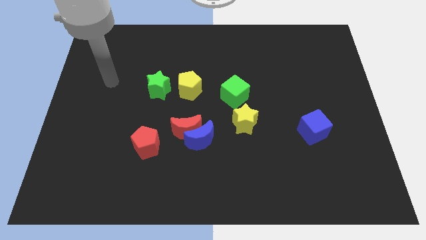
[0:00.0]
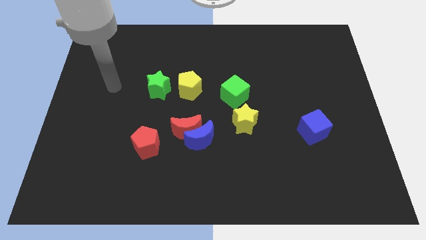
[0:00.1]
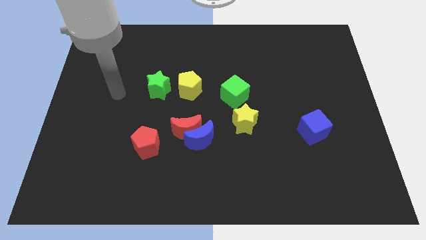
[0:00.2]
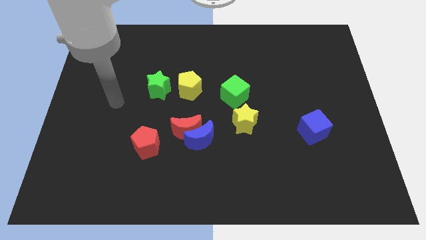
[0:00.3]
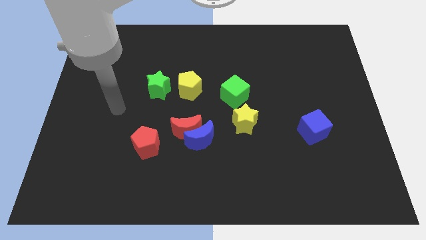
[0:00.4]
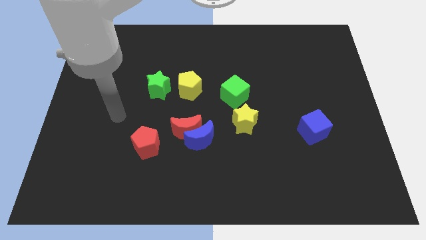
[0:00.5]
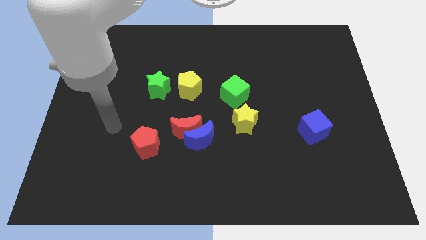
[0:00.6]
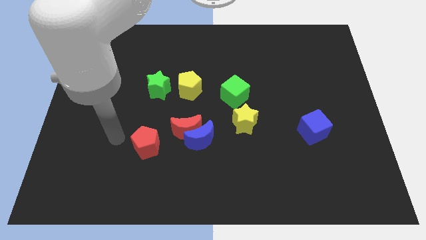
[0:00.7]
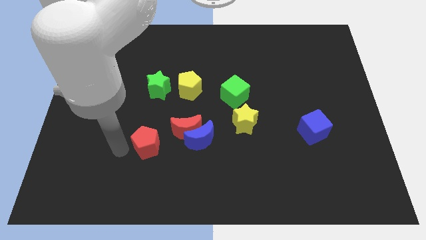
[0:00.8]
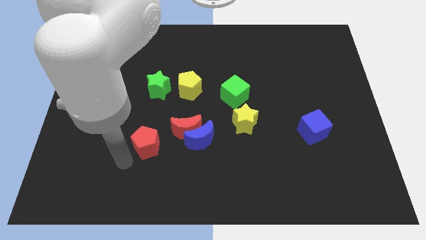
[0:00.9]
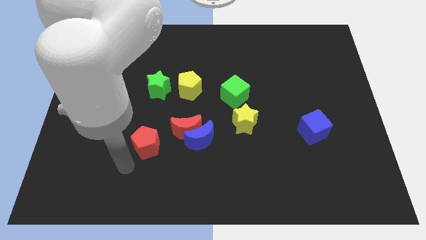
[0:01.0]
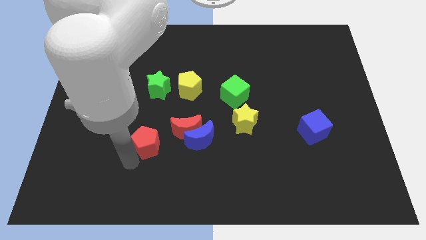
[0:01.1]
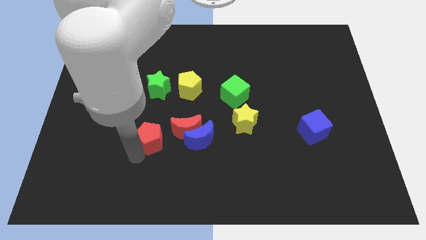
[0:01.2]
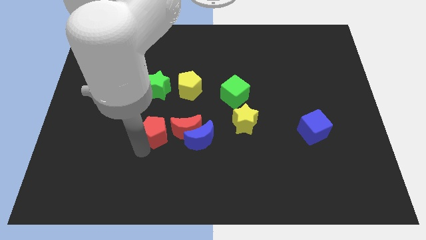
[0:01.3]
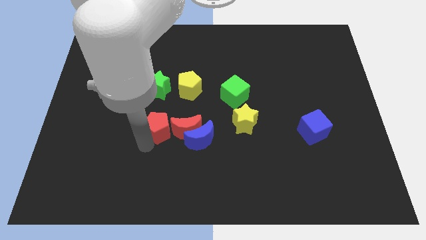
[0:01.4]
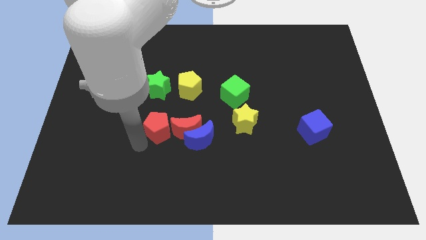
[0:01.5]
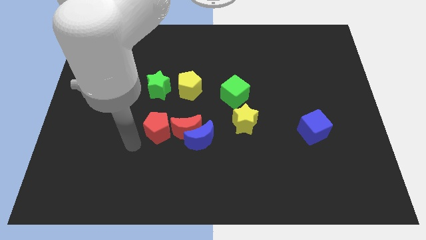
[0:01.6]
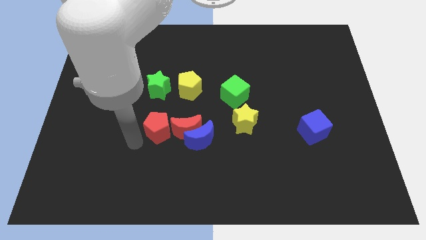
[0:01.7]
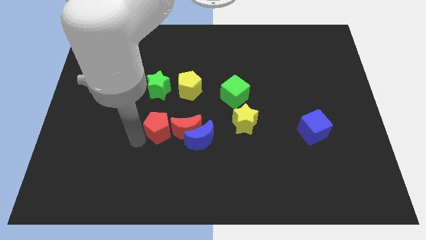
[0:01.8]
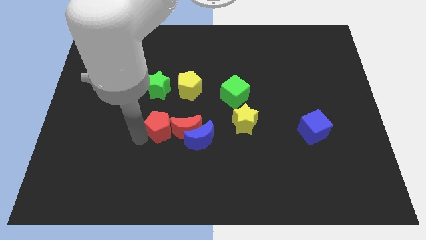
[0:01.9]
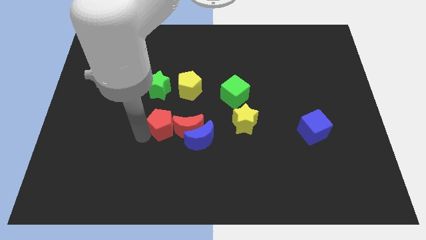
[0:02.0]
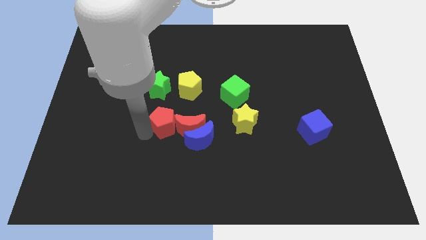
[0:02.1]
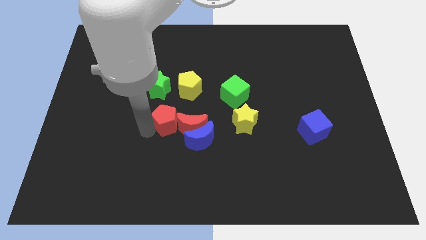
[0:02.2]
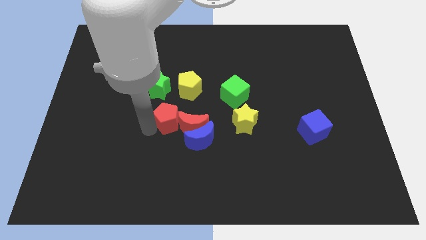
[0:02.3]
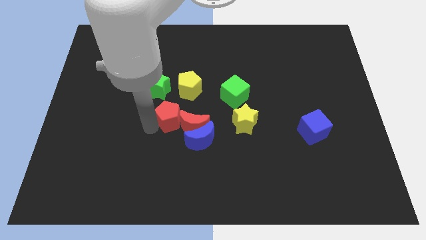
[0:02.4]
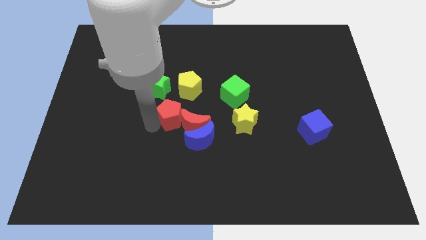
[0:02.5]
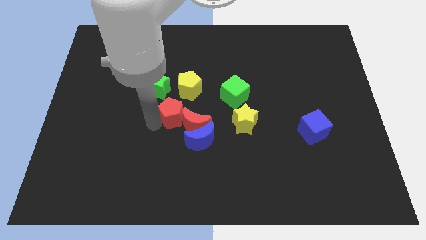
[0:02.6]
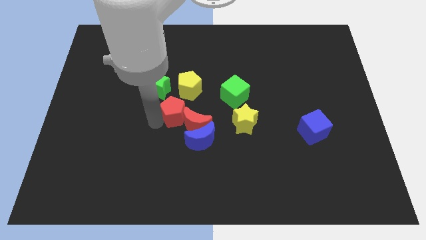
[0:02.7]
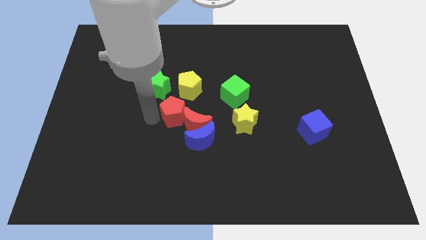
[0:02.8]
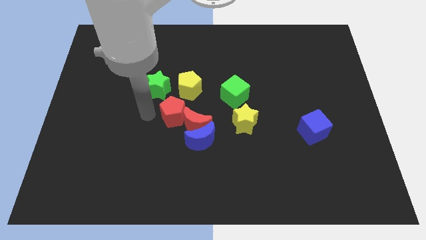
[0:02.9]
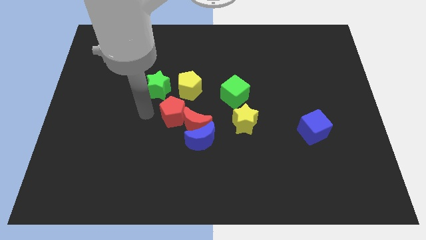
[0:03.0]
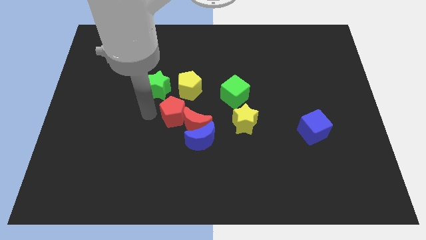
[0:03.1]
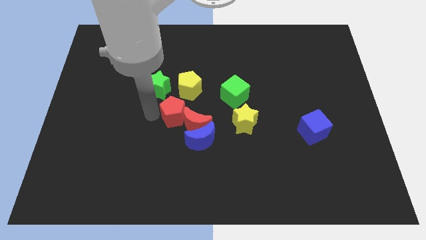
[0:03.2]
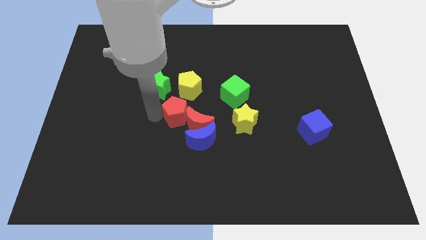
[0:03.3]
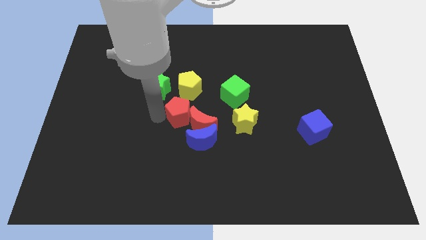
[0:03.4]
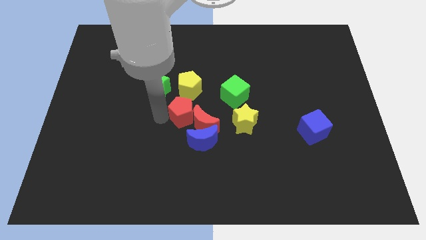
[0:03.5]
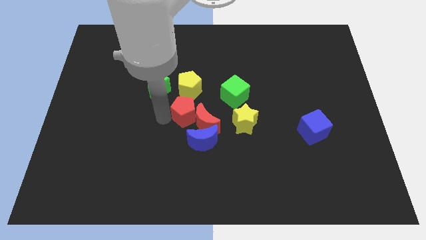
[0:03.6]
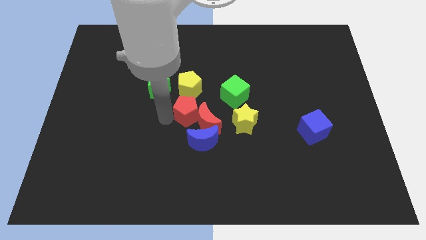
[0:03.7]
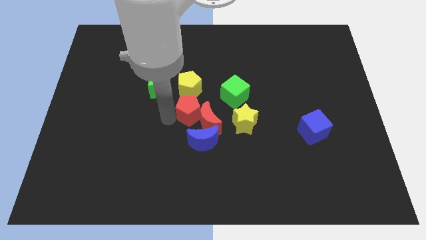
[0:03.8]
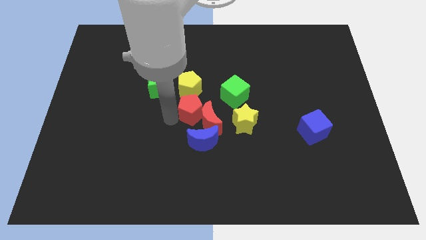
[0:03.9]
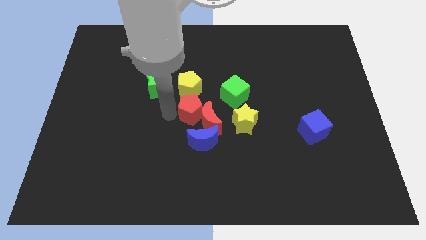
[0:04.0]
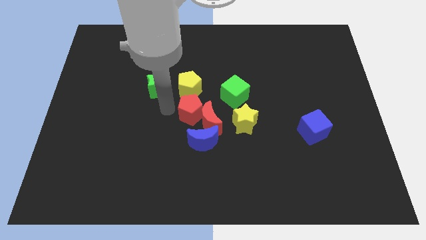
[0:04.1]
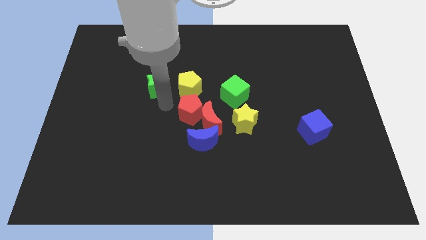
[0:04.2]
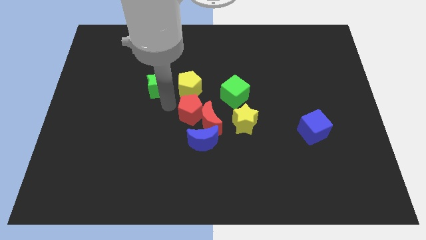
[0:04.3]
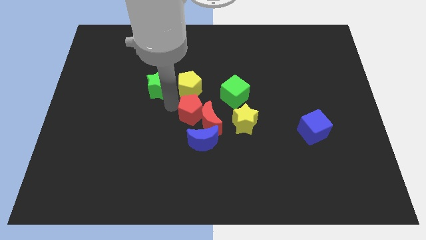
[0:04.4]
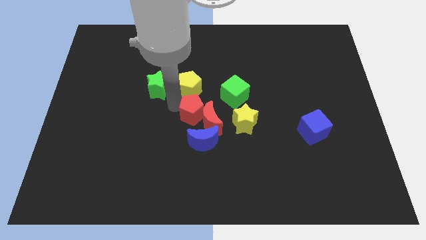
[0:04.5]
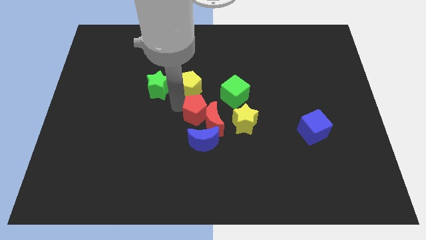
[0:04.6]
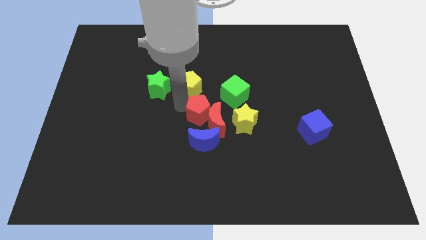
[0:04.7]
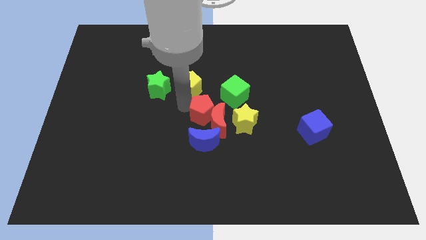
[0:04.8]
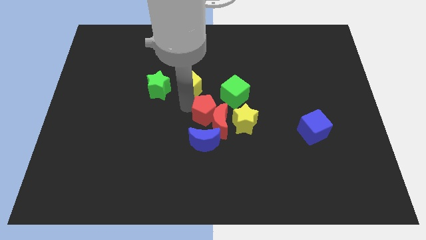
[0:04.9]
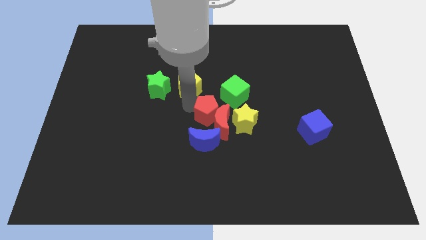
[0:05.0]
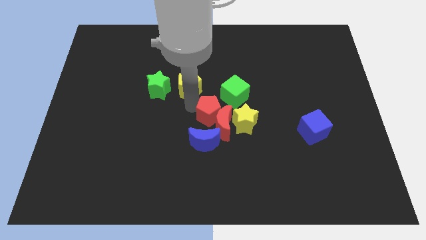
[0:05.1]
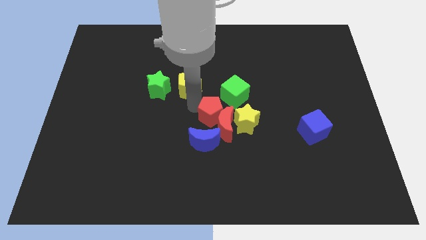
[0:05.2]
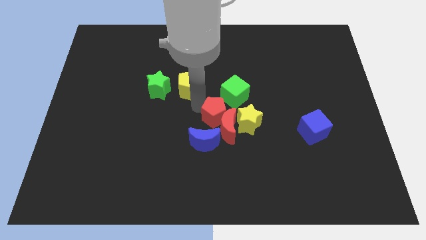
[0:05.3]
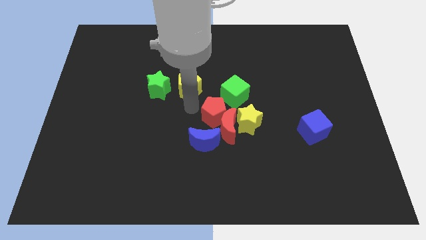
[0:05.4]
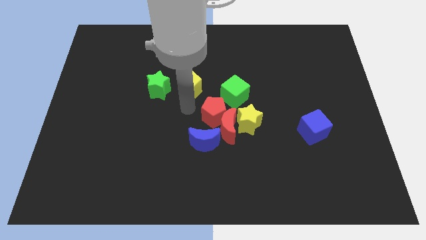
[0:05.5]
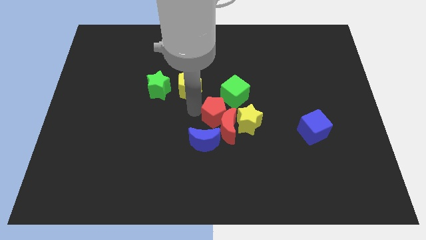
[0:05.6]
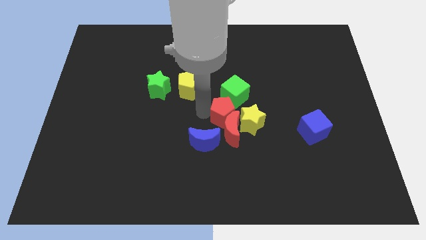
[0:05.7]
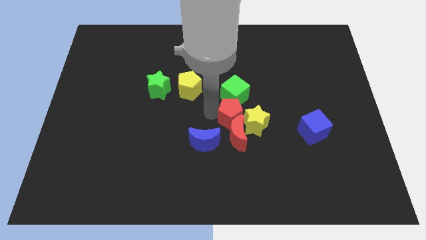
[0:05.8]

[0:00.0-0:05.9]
slide the red pentagon close to the yellow star

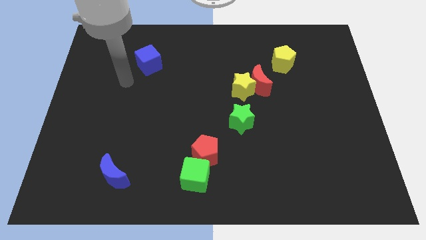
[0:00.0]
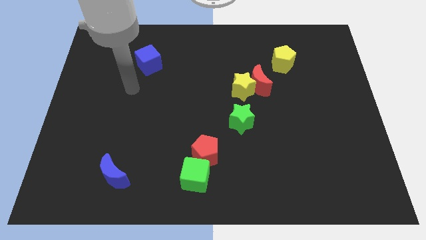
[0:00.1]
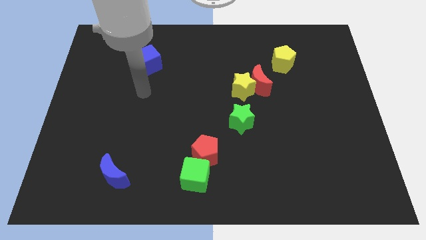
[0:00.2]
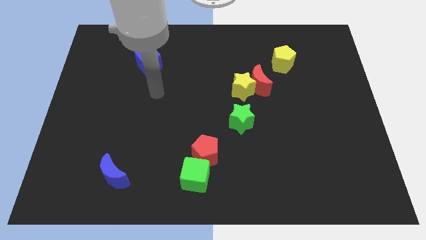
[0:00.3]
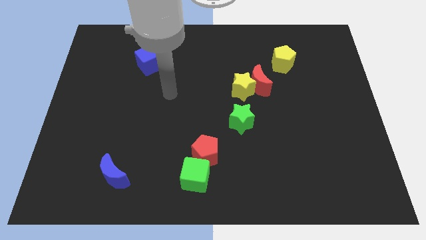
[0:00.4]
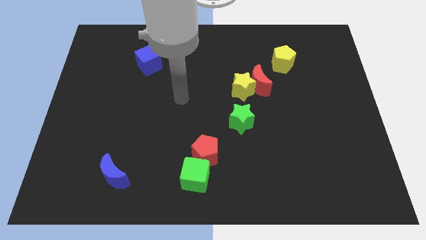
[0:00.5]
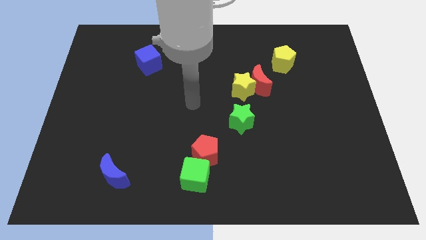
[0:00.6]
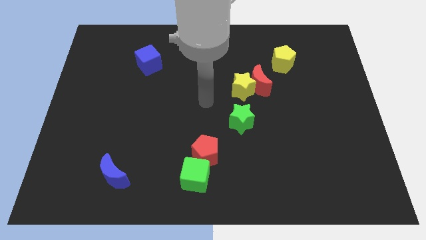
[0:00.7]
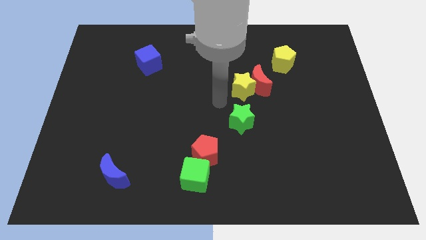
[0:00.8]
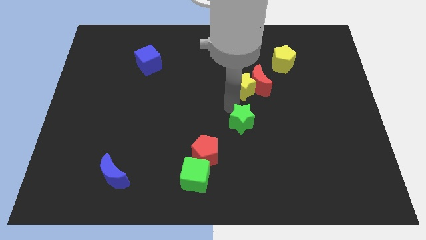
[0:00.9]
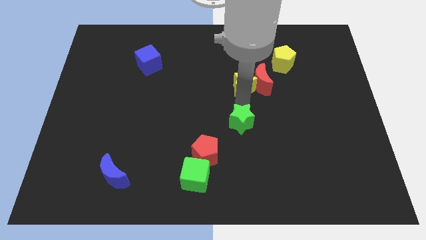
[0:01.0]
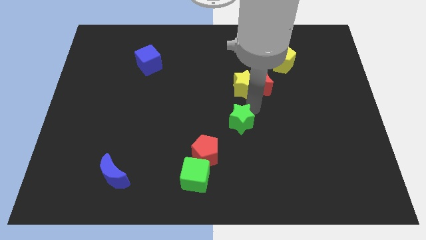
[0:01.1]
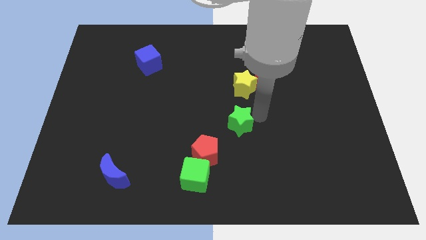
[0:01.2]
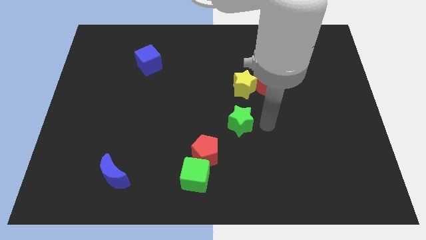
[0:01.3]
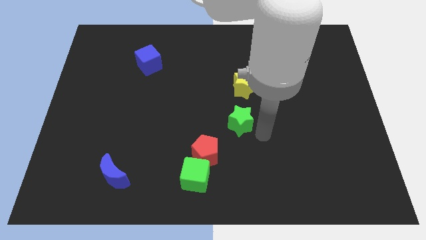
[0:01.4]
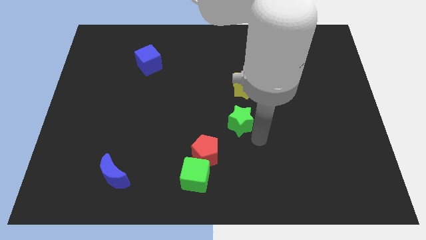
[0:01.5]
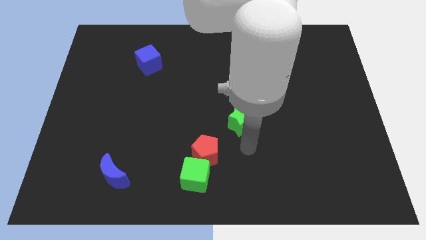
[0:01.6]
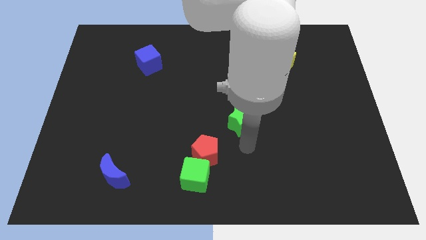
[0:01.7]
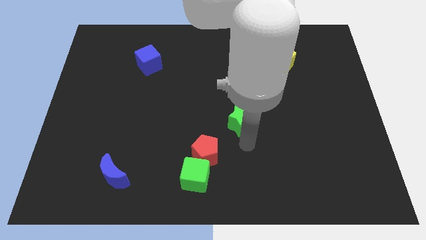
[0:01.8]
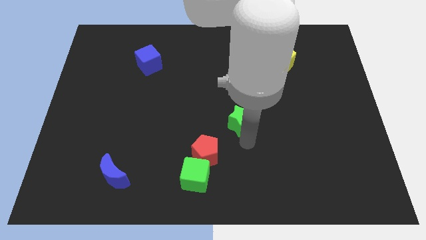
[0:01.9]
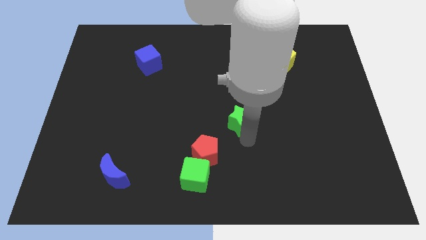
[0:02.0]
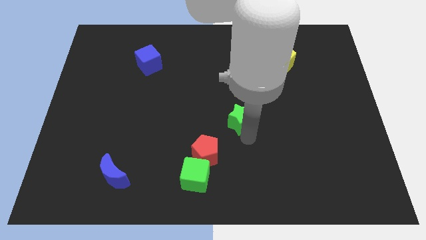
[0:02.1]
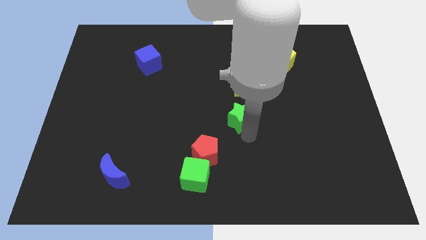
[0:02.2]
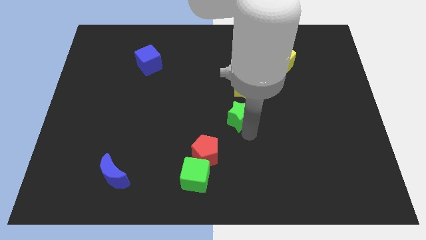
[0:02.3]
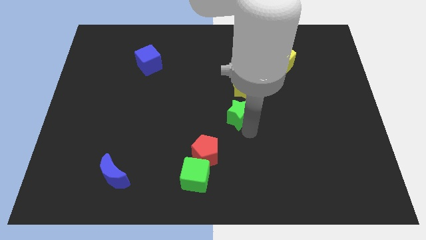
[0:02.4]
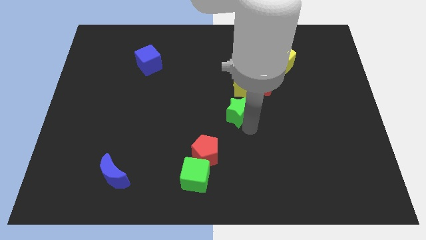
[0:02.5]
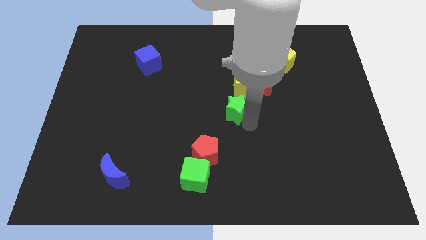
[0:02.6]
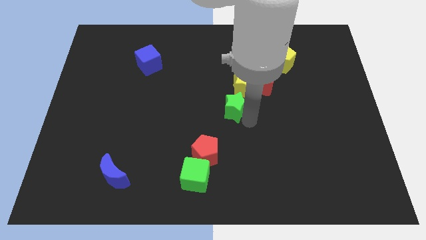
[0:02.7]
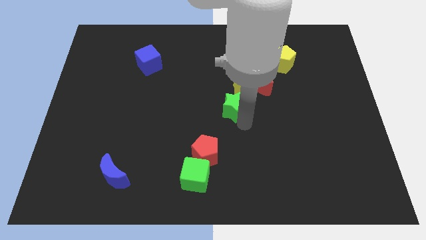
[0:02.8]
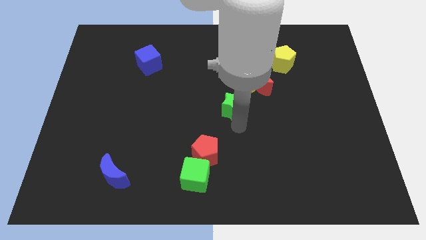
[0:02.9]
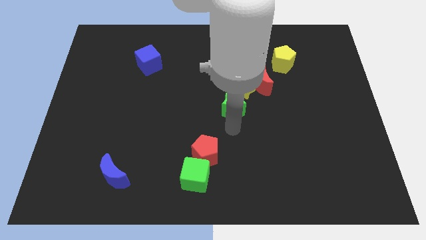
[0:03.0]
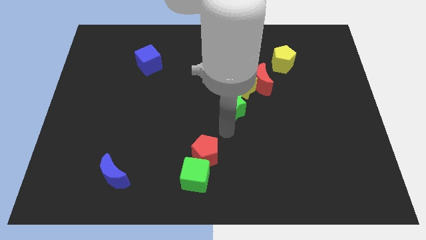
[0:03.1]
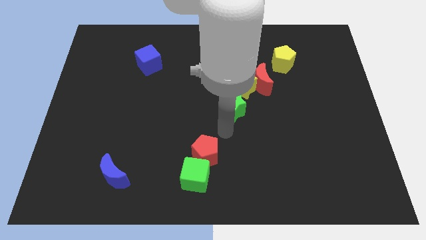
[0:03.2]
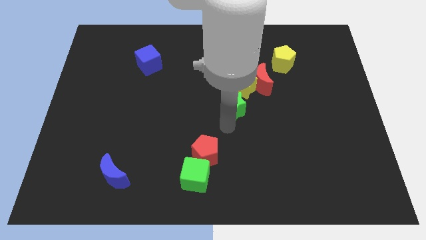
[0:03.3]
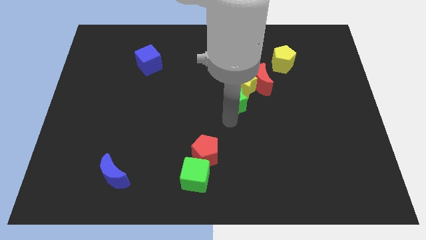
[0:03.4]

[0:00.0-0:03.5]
push the green star next to the yellow star
